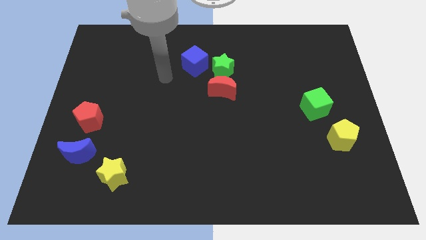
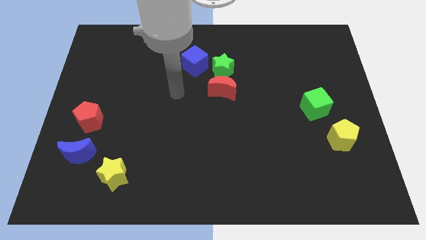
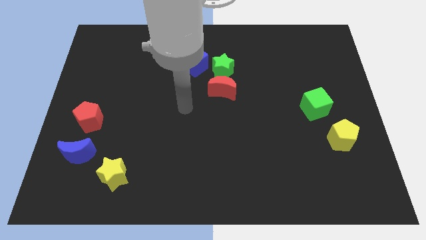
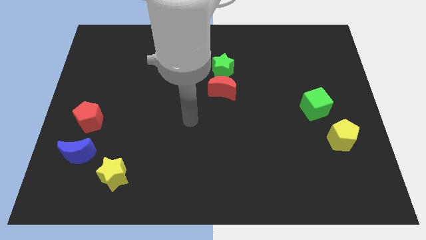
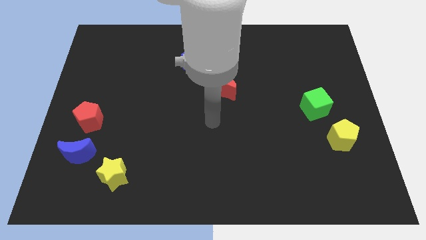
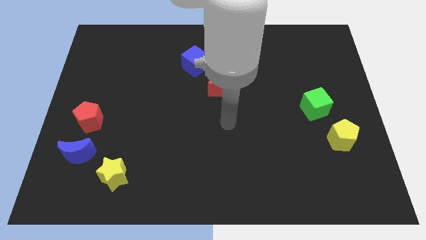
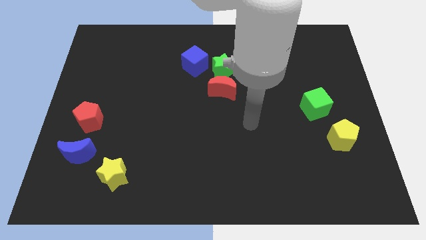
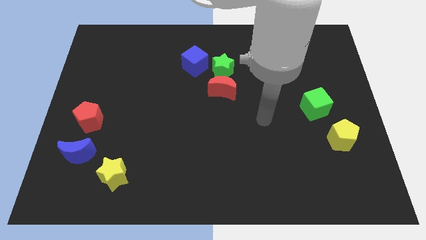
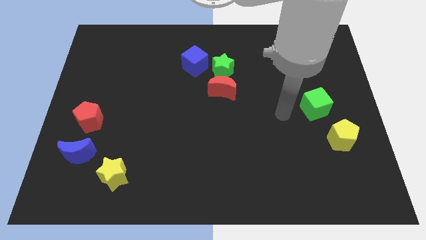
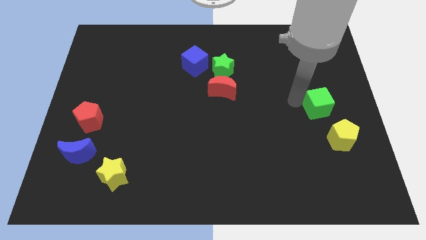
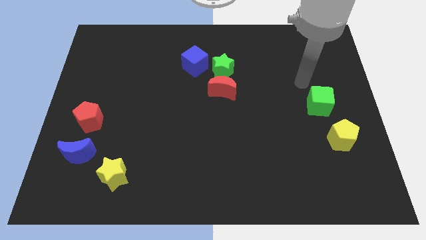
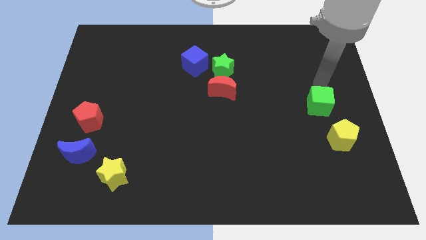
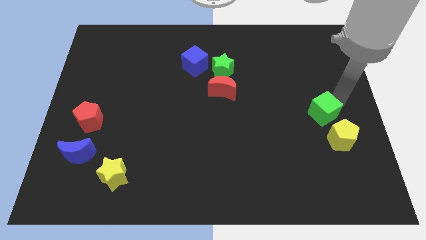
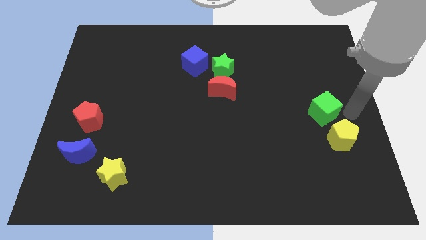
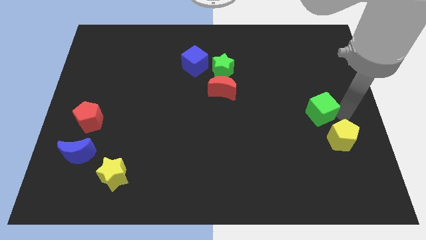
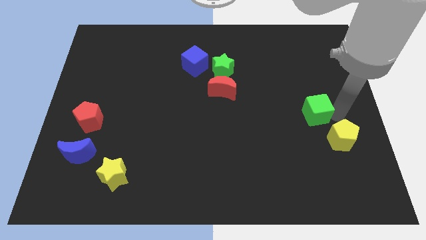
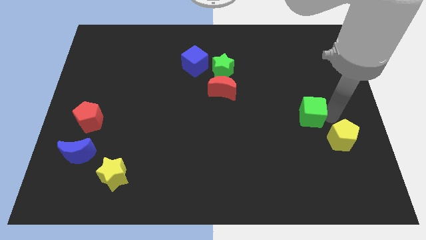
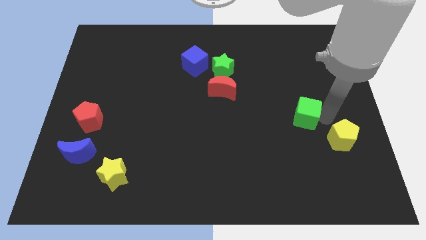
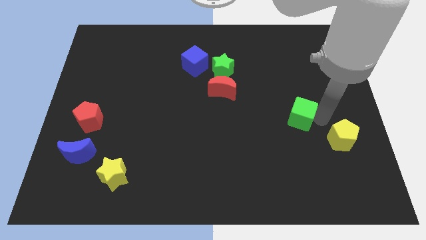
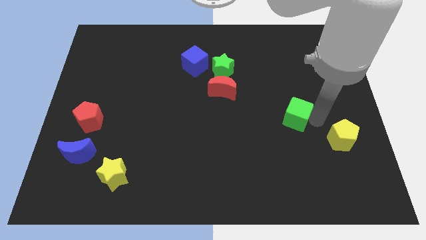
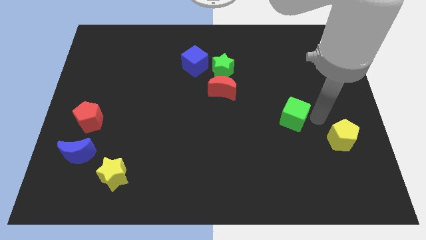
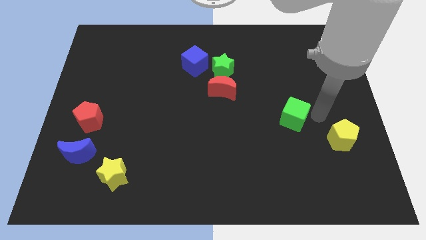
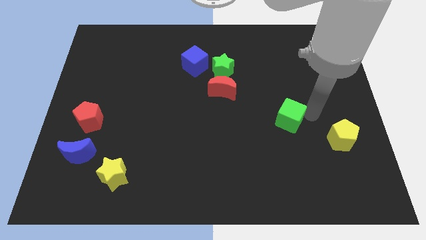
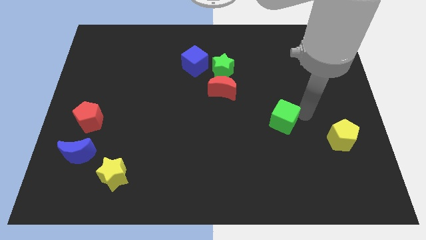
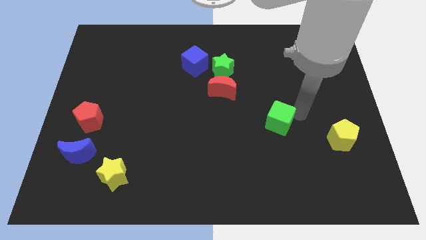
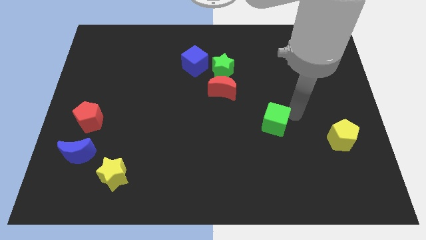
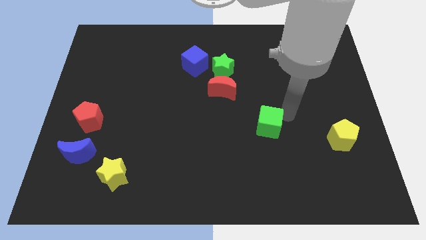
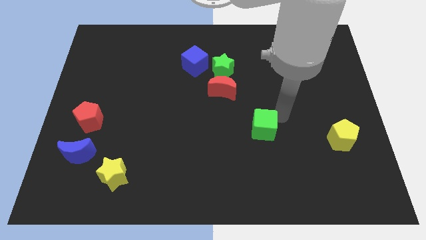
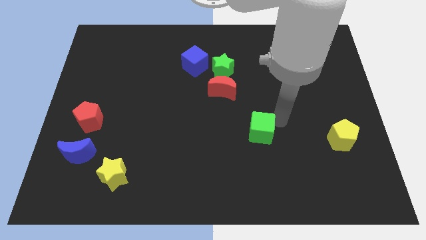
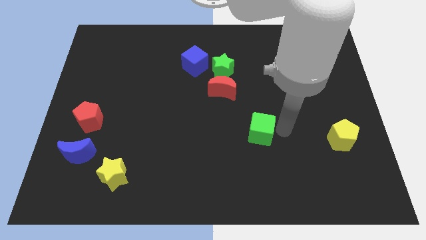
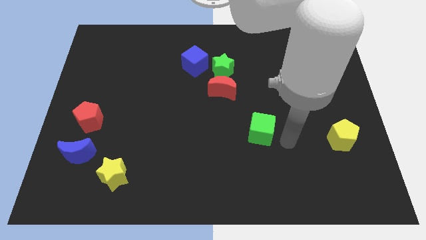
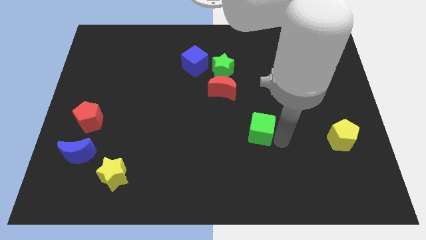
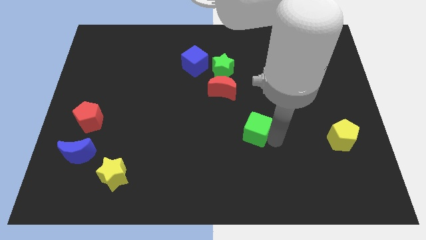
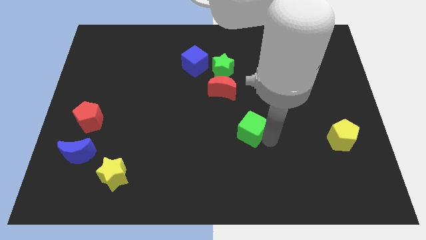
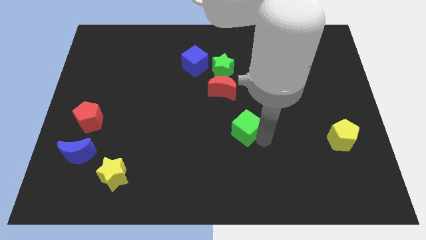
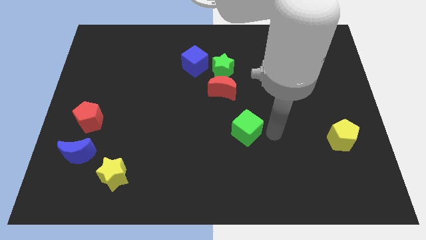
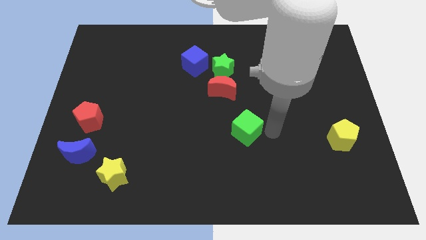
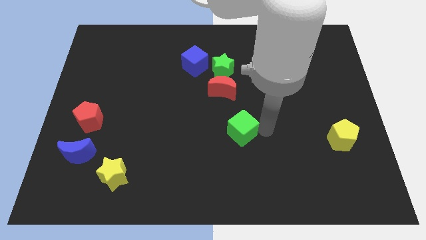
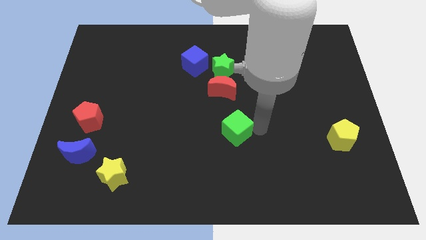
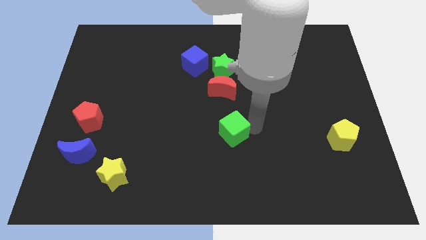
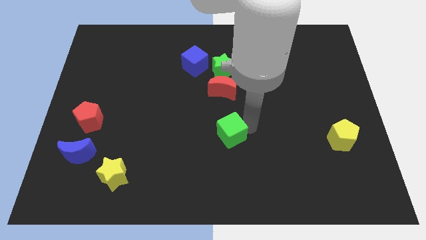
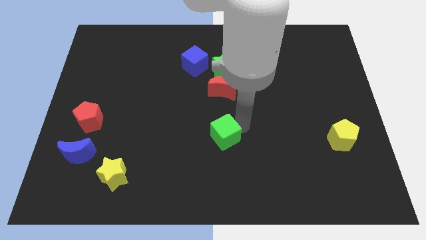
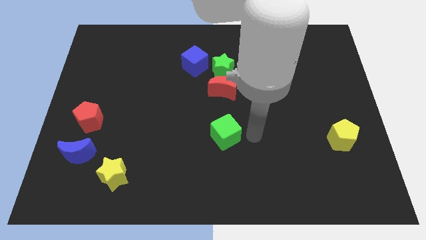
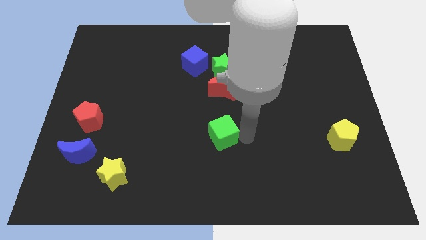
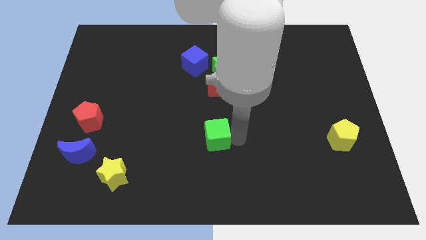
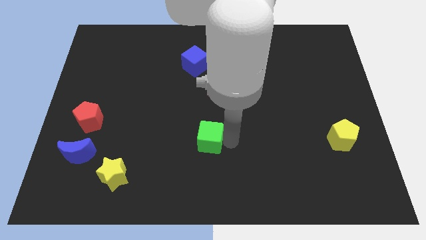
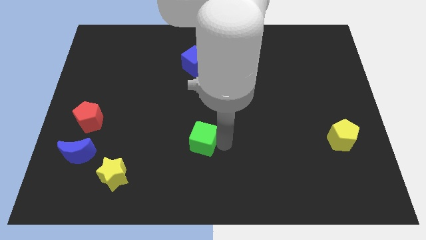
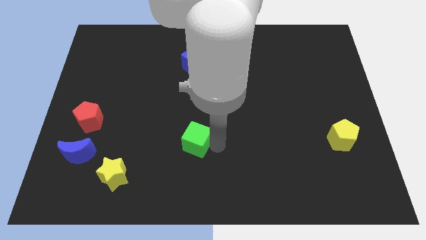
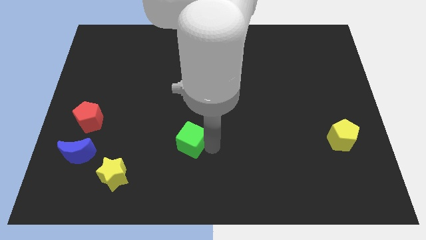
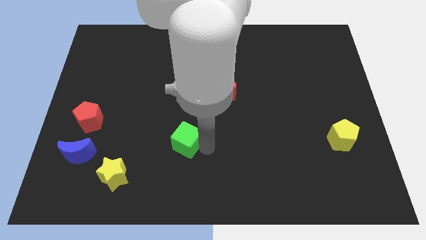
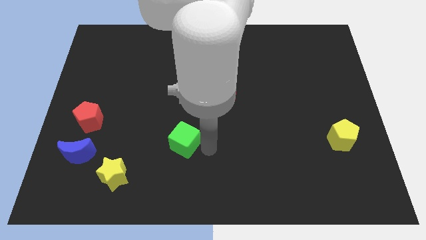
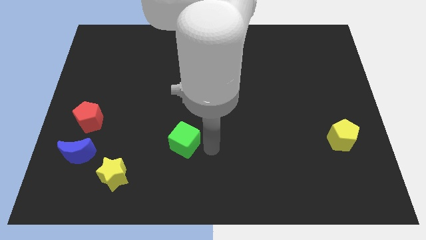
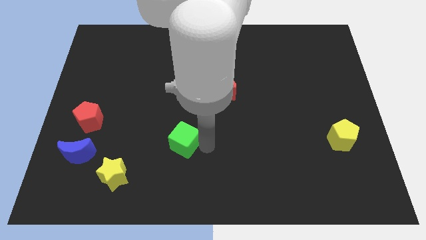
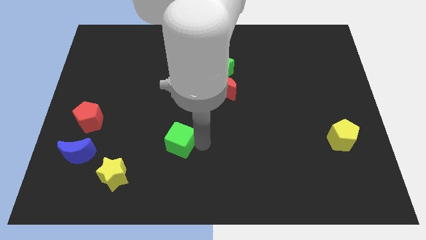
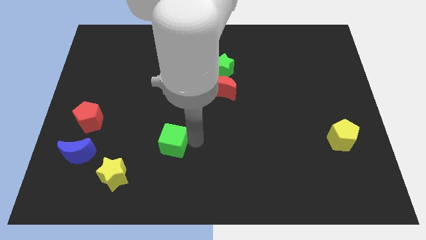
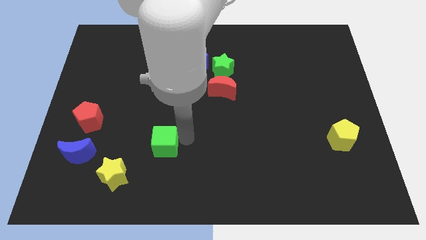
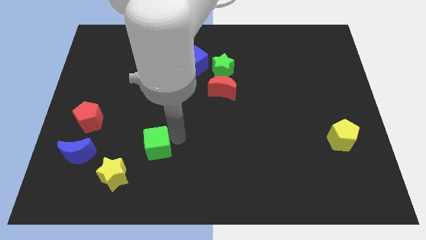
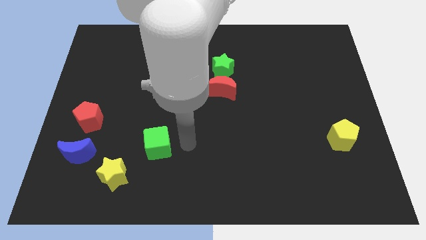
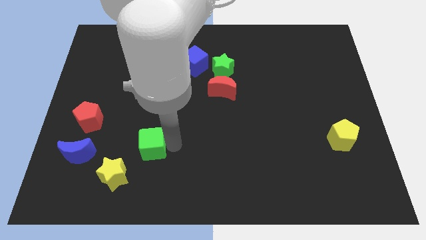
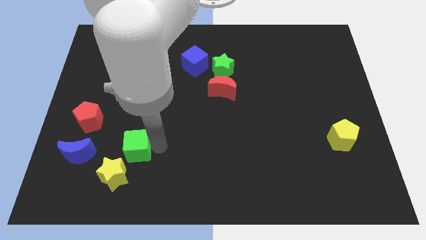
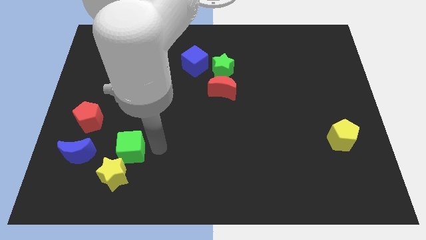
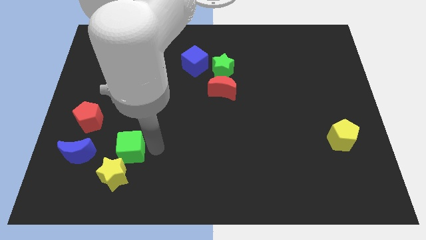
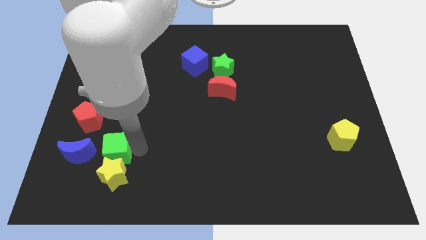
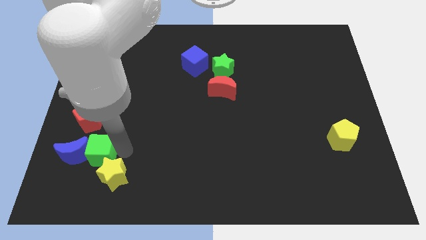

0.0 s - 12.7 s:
move the green cube towards the blue moon

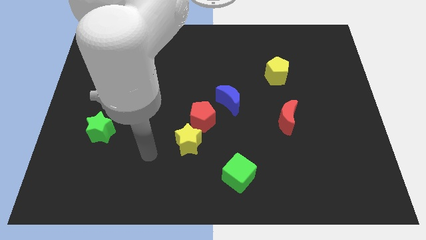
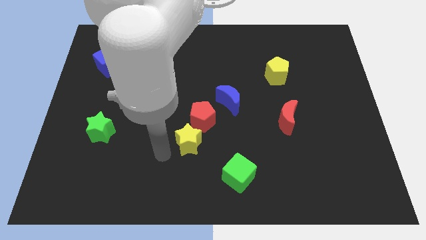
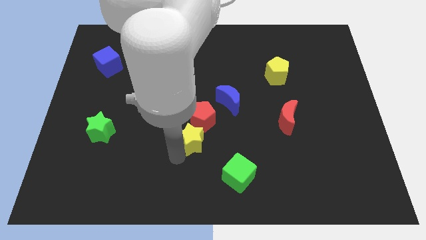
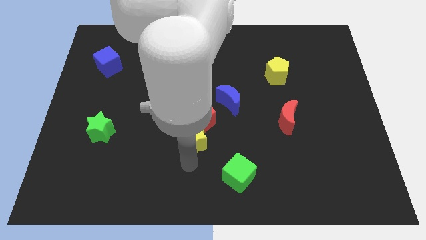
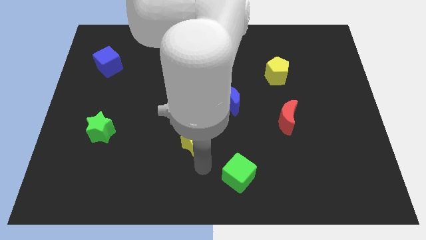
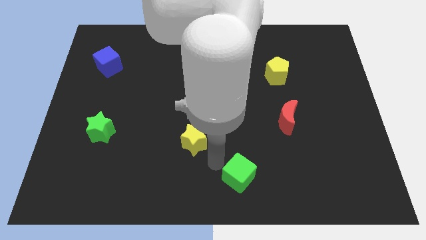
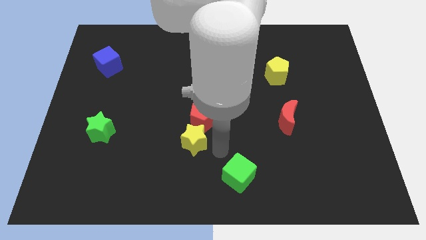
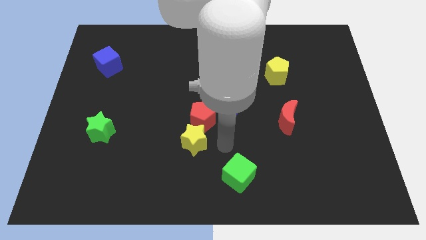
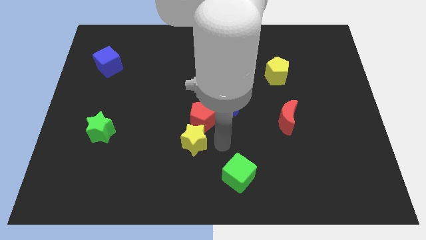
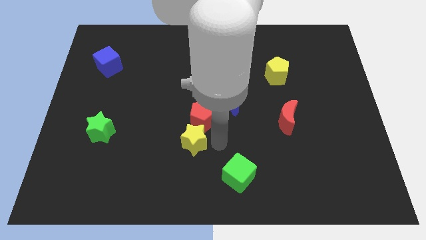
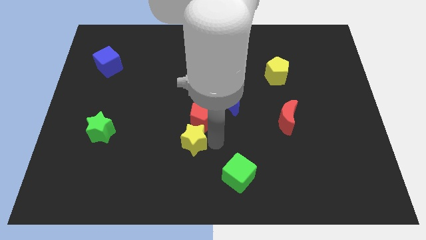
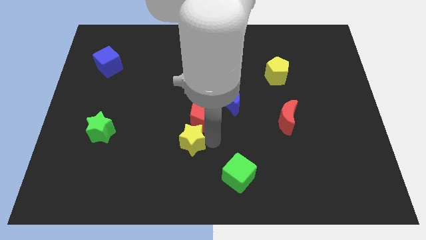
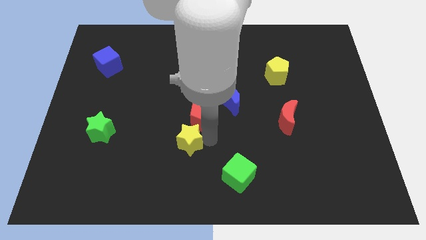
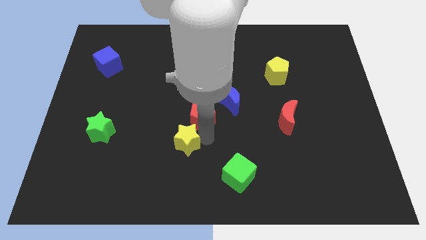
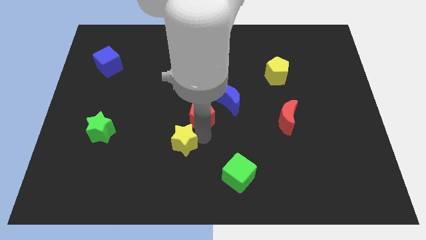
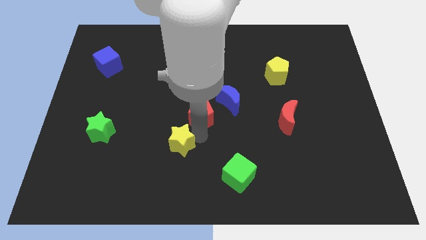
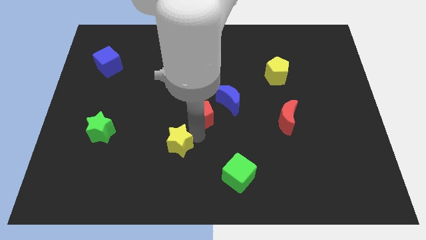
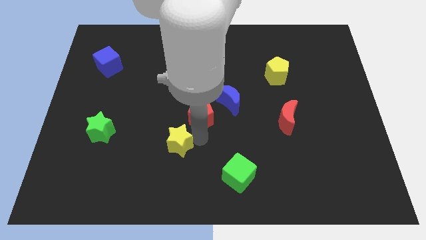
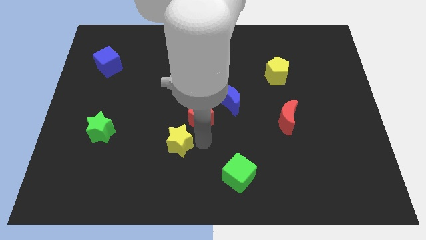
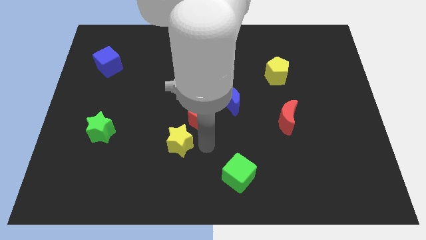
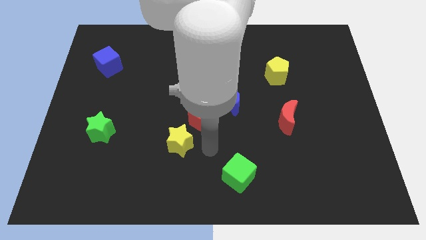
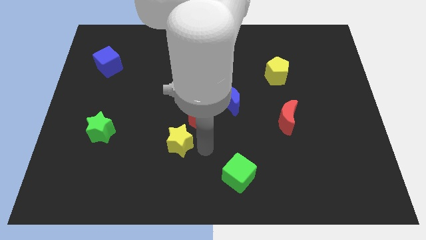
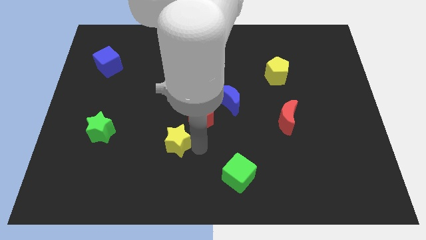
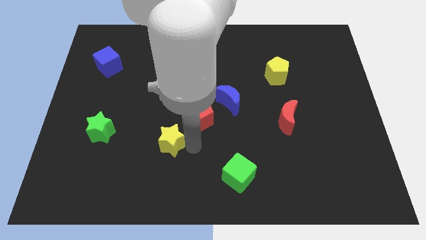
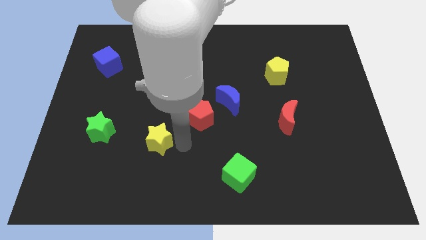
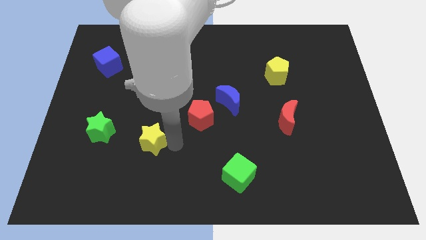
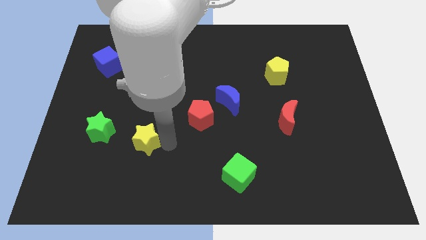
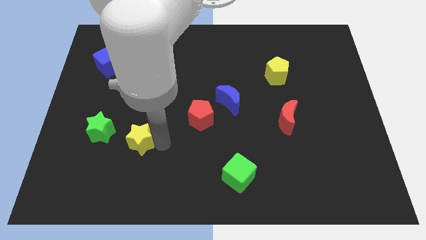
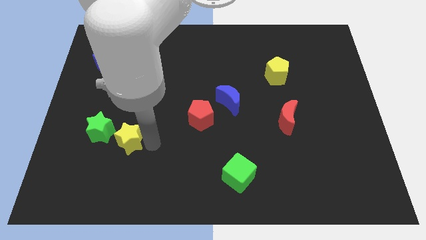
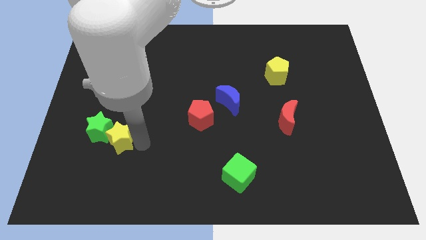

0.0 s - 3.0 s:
move the yellow star close to the green star
